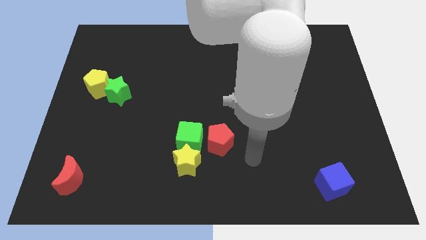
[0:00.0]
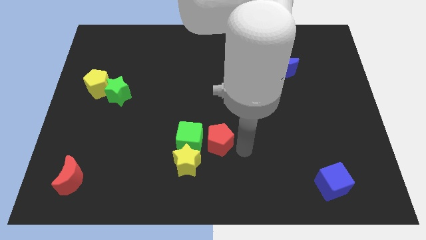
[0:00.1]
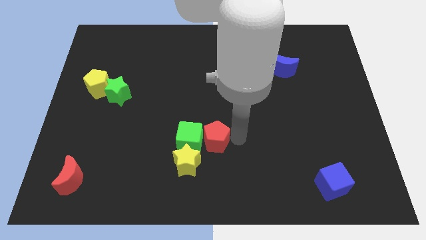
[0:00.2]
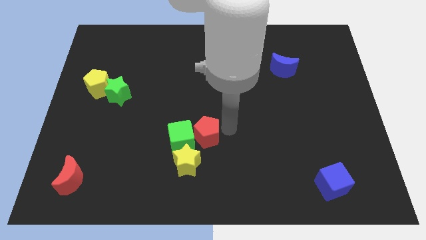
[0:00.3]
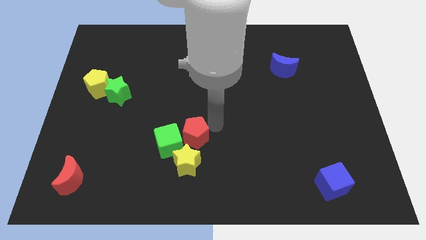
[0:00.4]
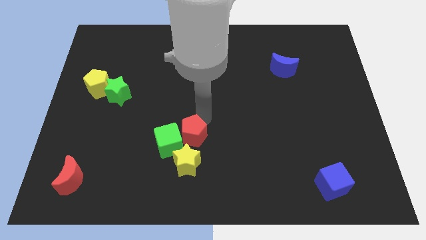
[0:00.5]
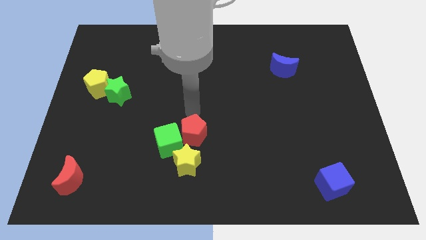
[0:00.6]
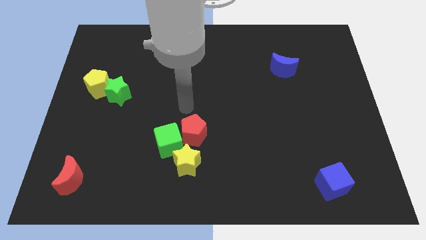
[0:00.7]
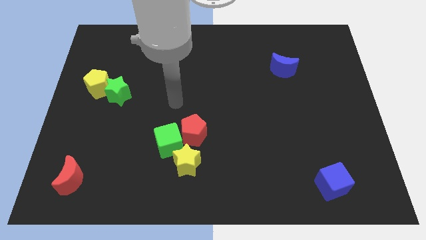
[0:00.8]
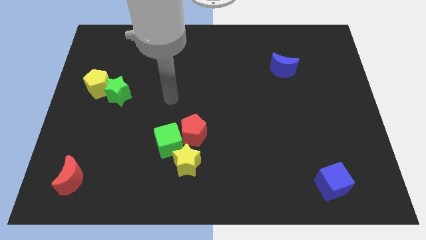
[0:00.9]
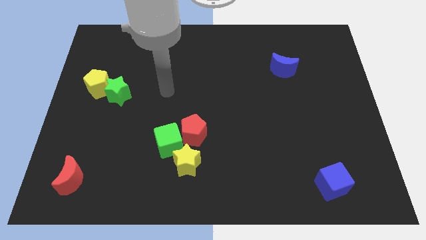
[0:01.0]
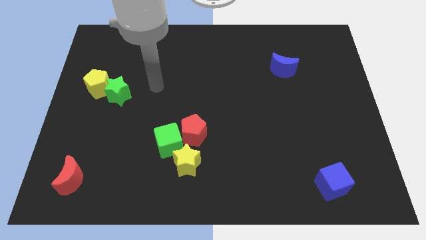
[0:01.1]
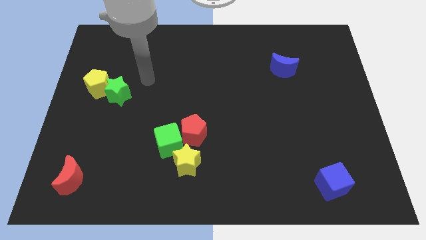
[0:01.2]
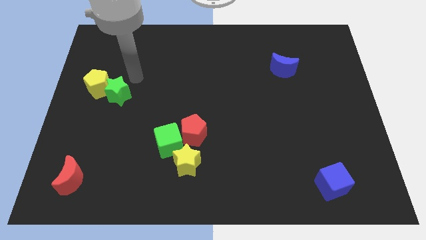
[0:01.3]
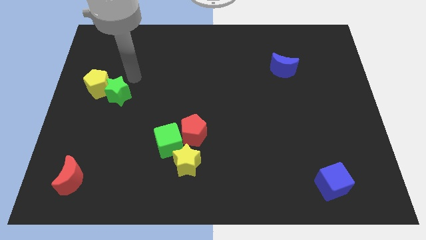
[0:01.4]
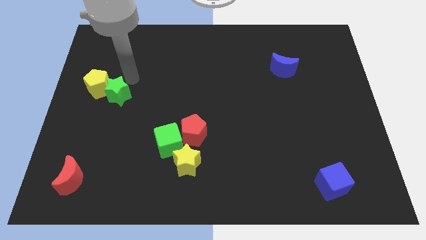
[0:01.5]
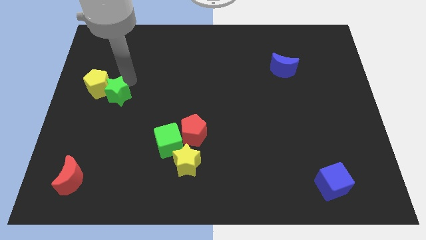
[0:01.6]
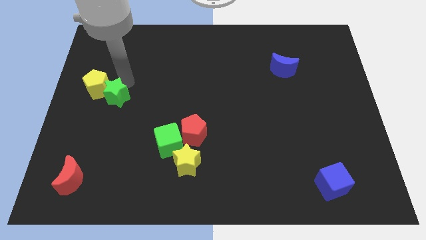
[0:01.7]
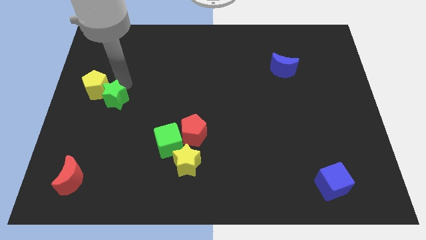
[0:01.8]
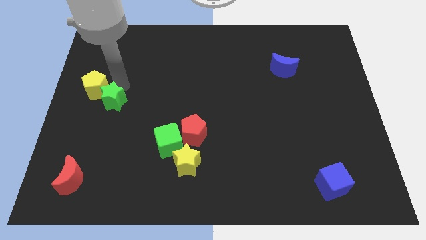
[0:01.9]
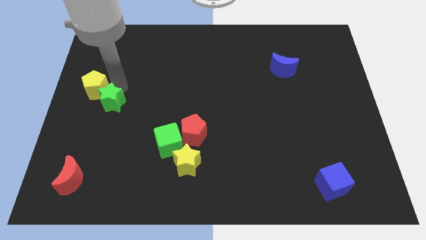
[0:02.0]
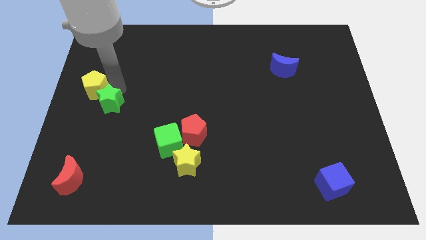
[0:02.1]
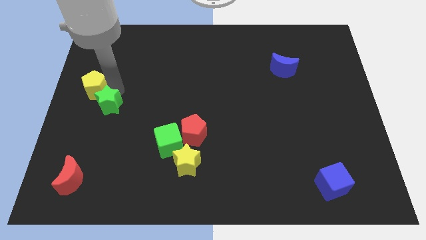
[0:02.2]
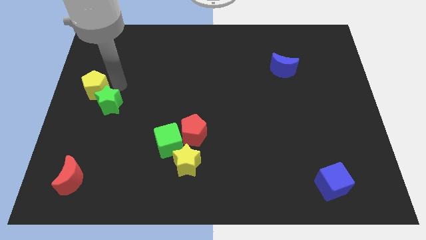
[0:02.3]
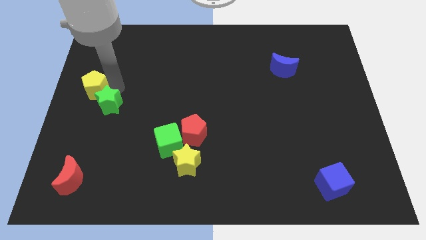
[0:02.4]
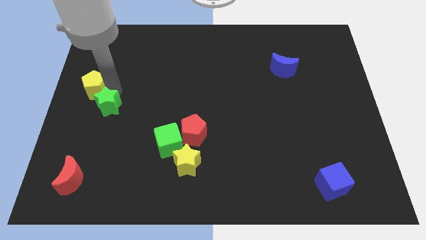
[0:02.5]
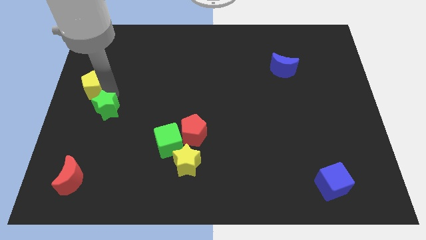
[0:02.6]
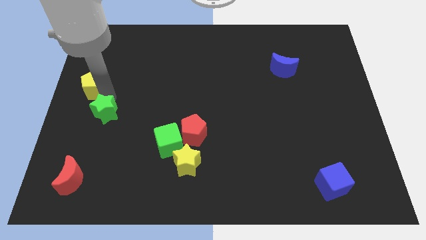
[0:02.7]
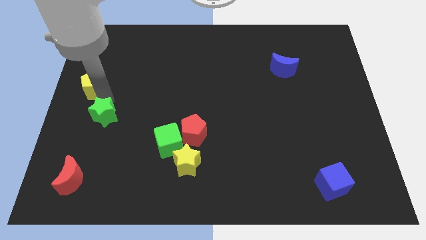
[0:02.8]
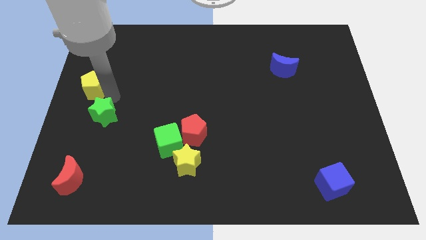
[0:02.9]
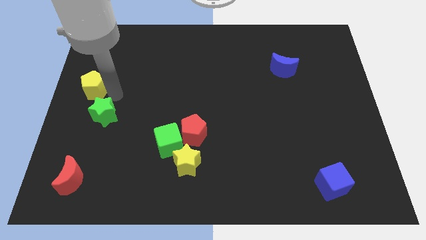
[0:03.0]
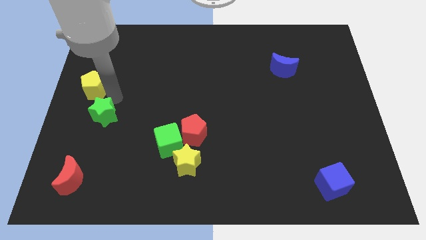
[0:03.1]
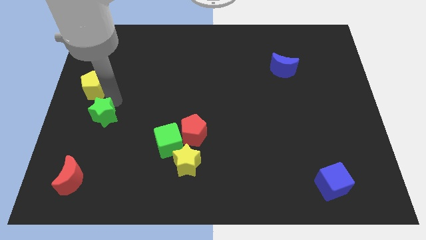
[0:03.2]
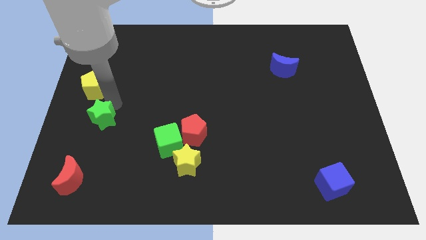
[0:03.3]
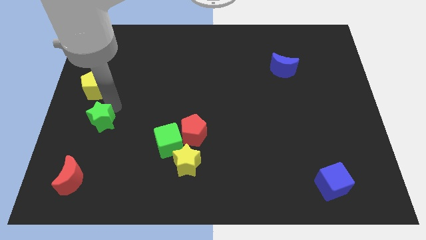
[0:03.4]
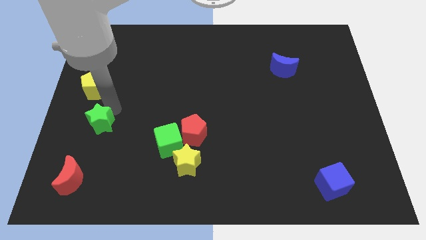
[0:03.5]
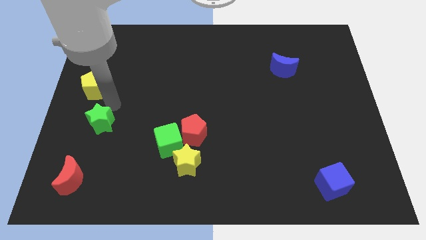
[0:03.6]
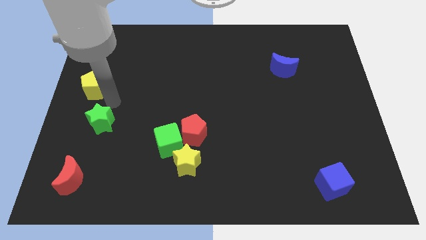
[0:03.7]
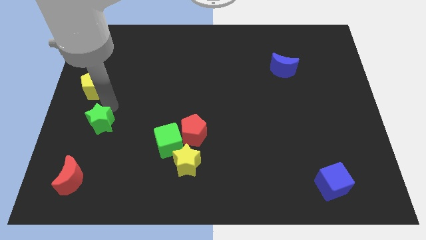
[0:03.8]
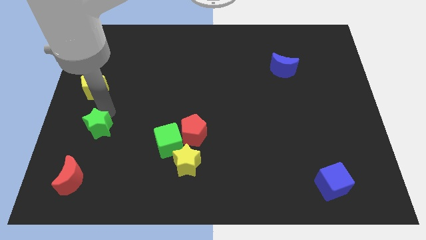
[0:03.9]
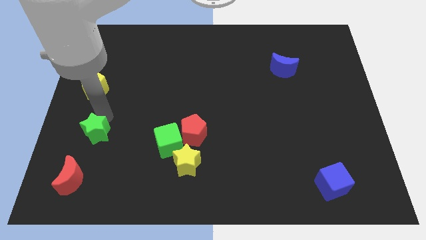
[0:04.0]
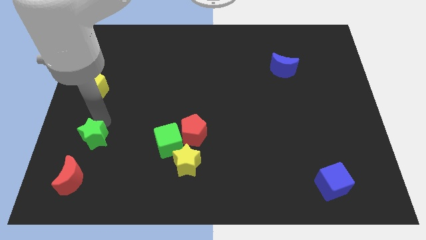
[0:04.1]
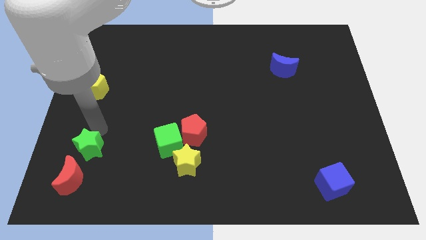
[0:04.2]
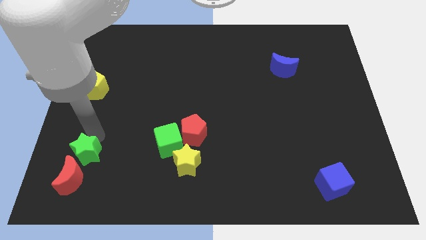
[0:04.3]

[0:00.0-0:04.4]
put the green star to the red moon

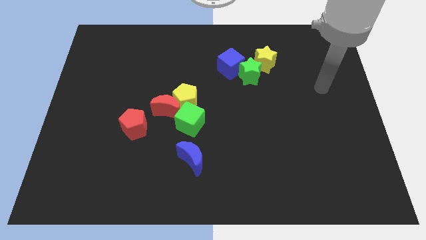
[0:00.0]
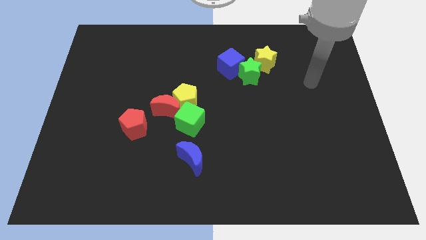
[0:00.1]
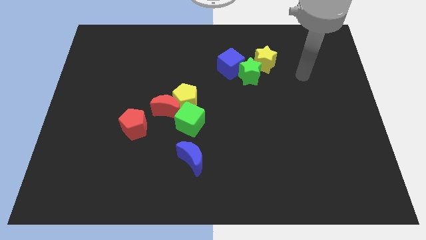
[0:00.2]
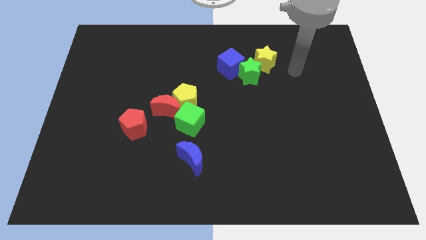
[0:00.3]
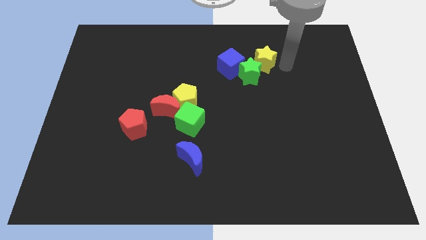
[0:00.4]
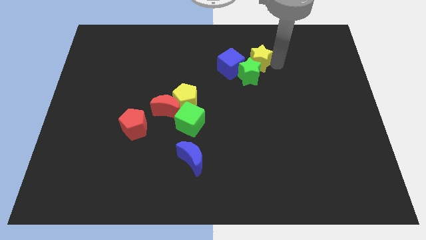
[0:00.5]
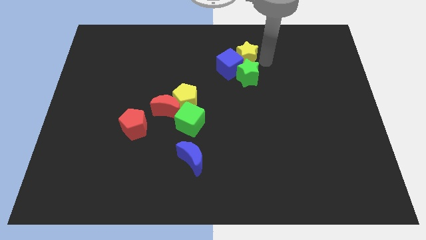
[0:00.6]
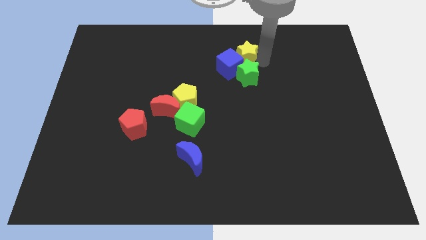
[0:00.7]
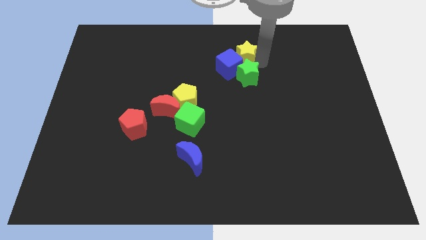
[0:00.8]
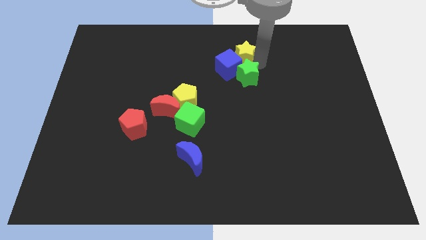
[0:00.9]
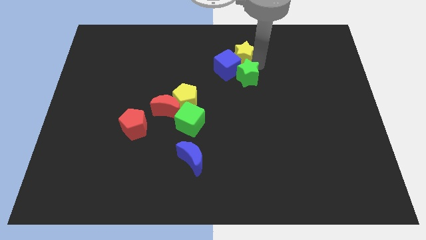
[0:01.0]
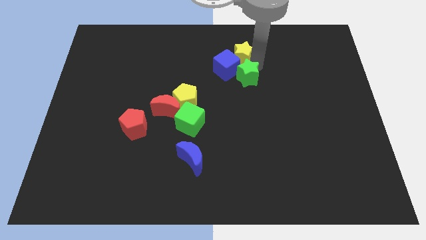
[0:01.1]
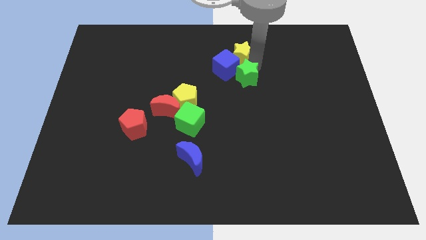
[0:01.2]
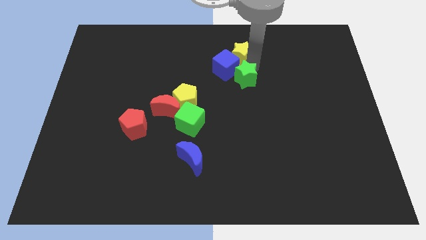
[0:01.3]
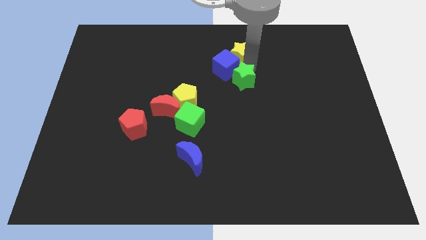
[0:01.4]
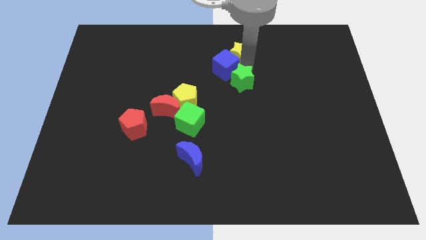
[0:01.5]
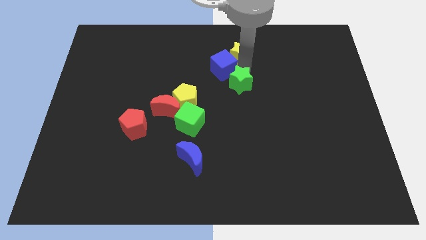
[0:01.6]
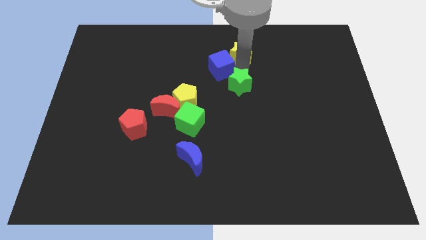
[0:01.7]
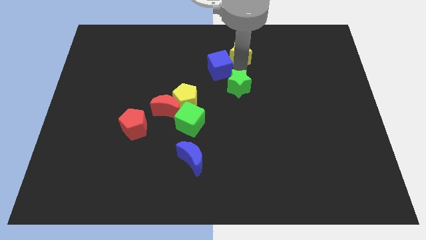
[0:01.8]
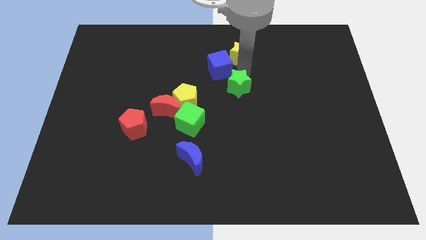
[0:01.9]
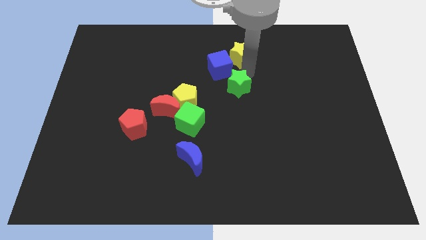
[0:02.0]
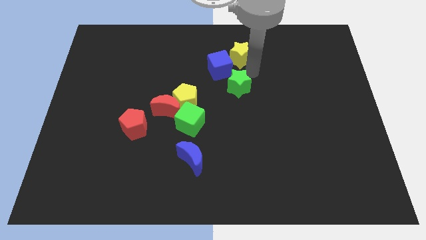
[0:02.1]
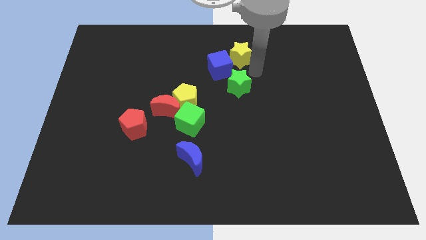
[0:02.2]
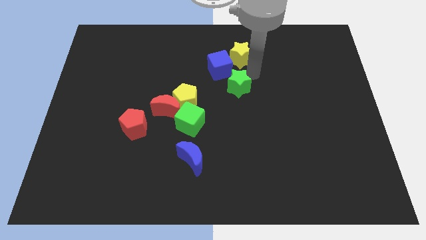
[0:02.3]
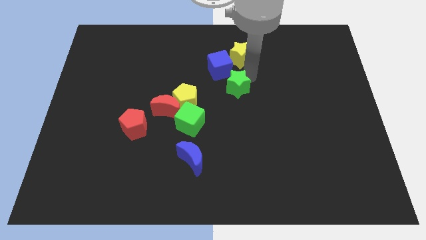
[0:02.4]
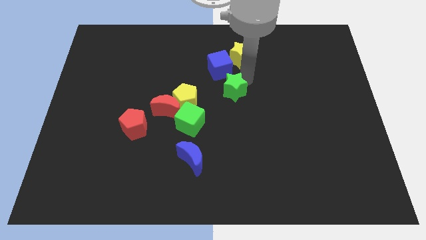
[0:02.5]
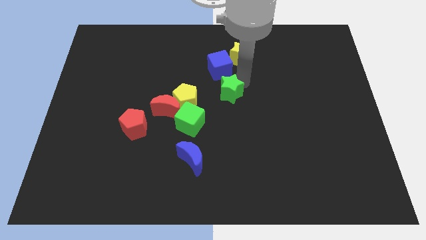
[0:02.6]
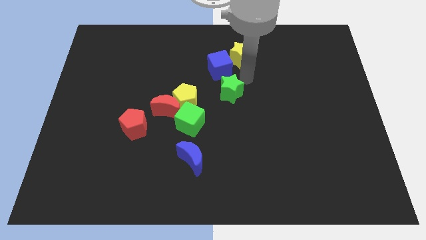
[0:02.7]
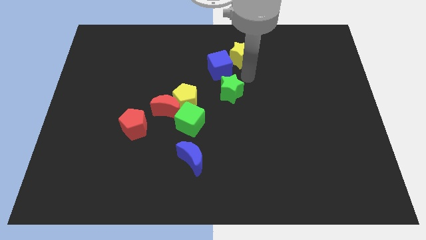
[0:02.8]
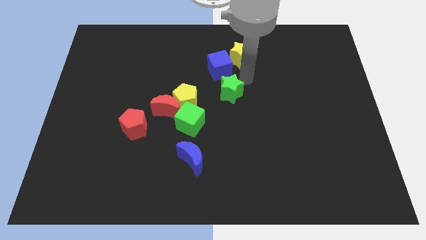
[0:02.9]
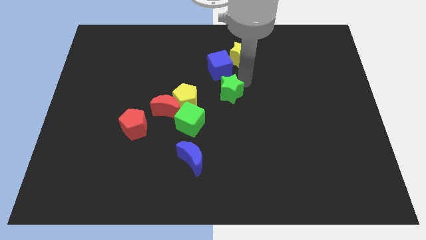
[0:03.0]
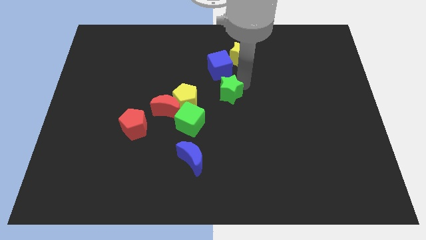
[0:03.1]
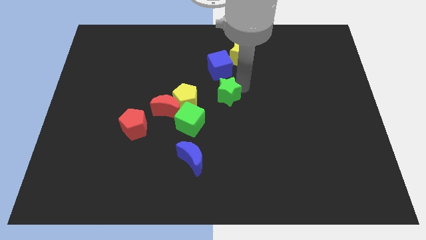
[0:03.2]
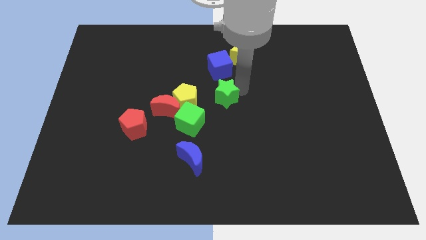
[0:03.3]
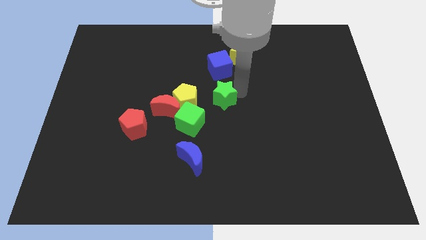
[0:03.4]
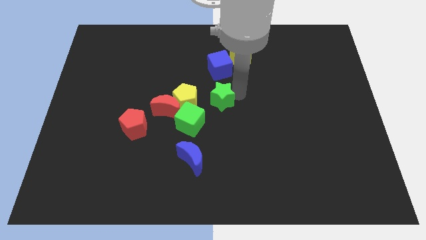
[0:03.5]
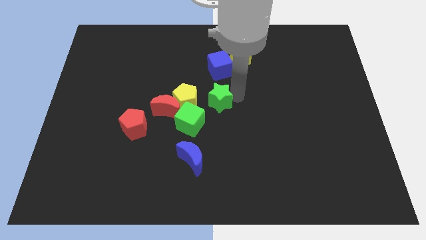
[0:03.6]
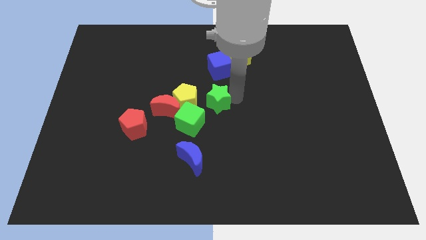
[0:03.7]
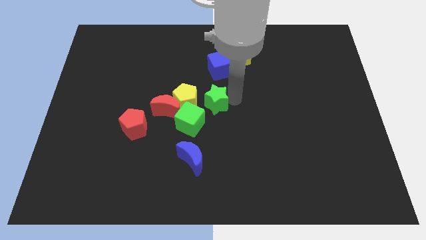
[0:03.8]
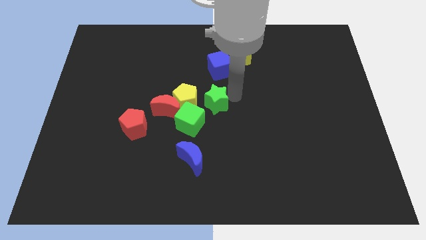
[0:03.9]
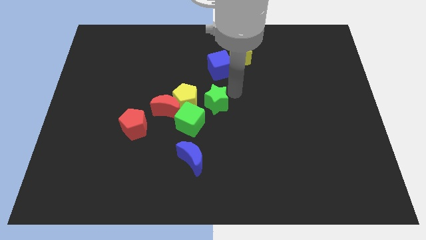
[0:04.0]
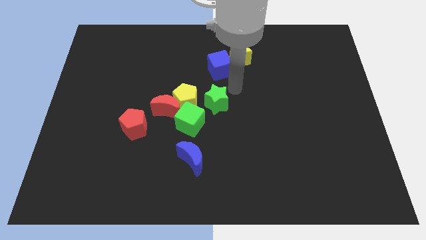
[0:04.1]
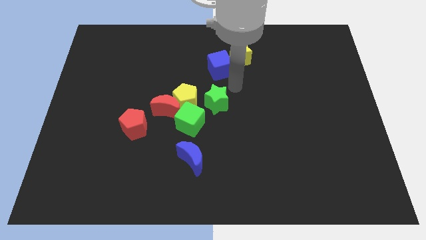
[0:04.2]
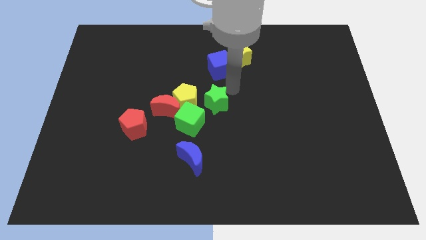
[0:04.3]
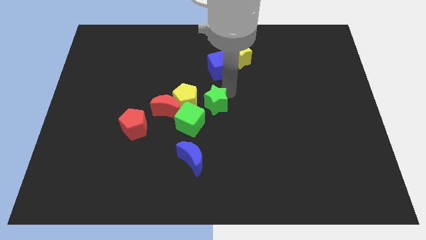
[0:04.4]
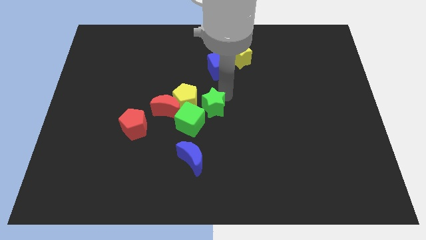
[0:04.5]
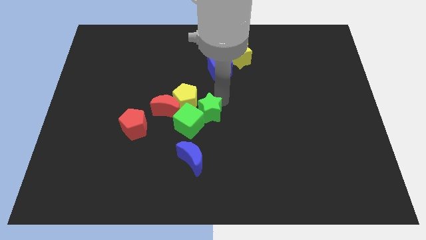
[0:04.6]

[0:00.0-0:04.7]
push the green star next to the green cube
